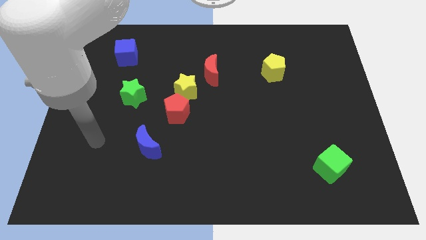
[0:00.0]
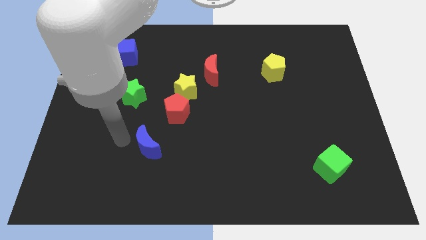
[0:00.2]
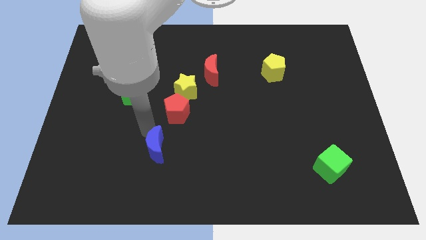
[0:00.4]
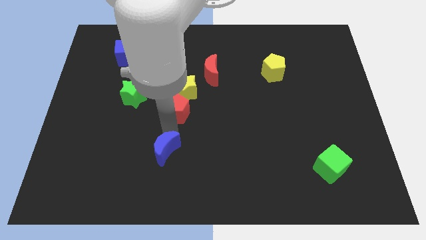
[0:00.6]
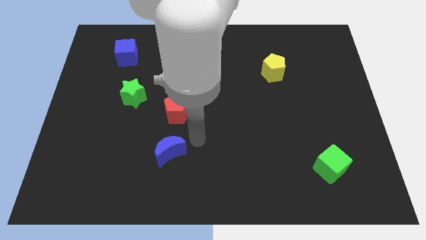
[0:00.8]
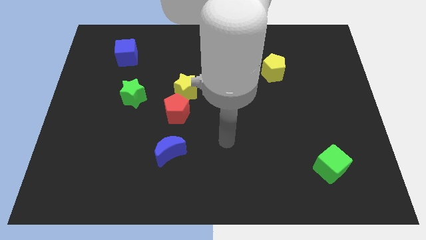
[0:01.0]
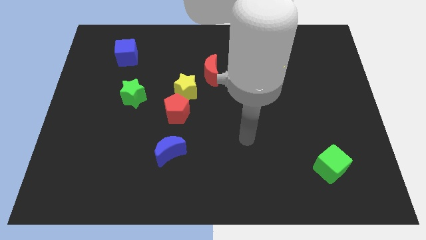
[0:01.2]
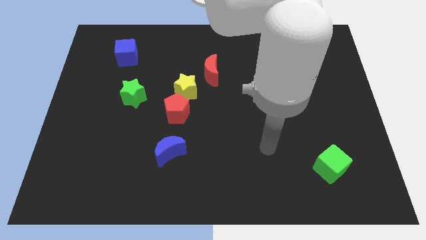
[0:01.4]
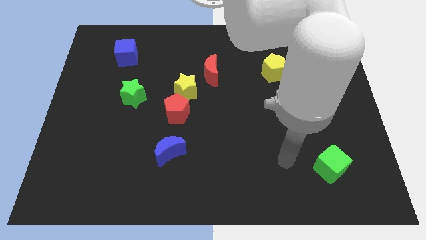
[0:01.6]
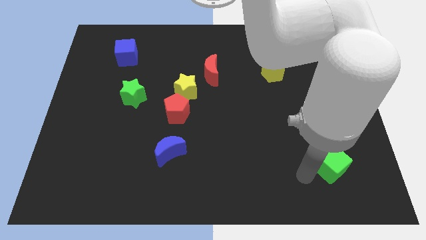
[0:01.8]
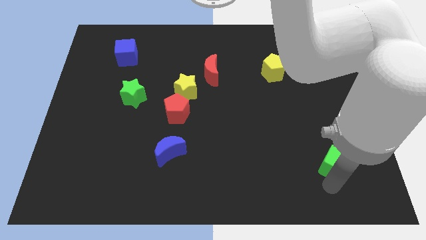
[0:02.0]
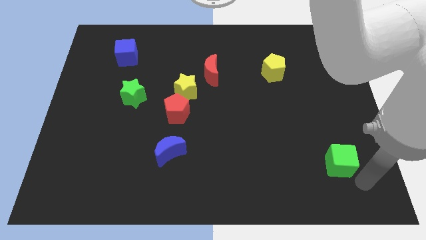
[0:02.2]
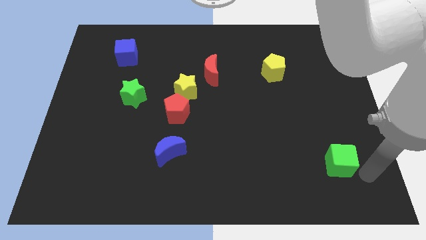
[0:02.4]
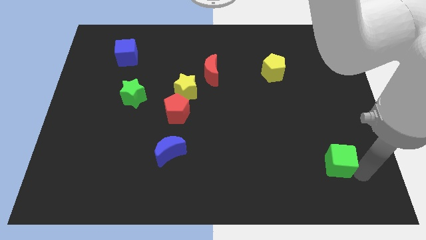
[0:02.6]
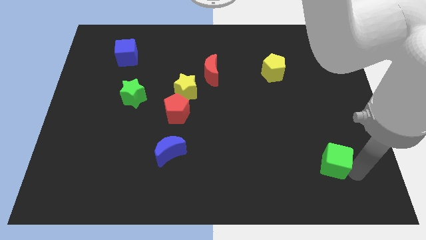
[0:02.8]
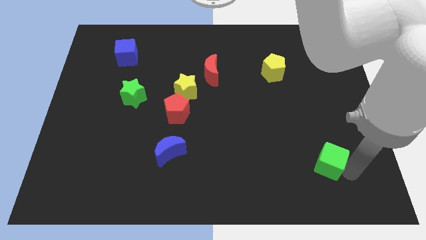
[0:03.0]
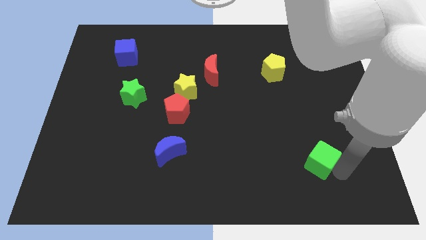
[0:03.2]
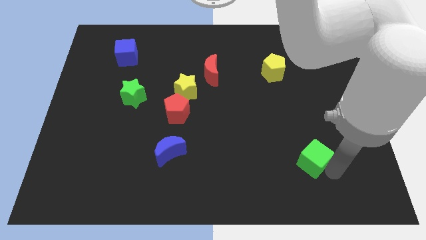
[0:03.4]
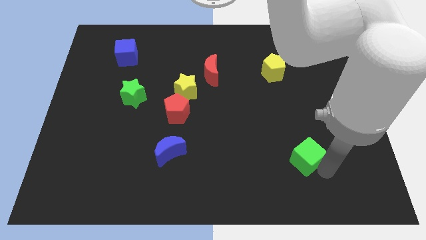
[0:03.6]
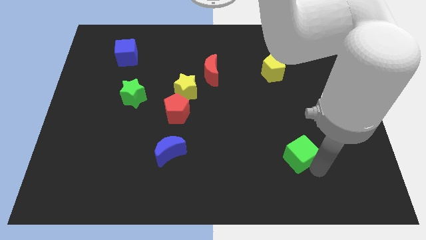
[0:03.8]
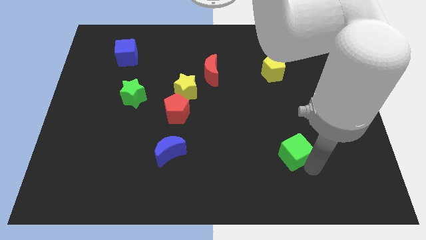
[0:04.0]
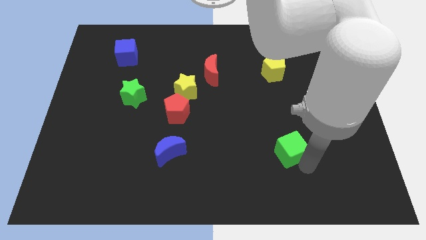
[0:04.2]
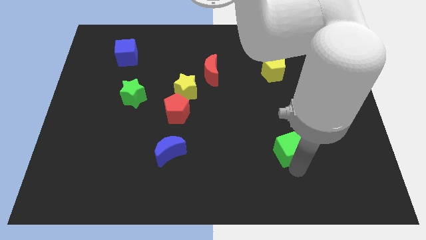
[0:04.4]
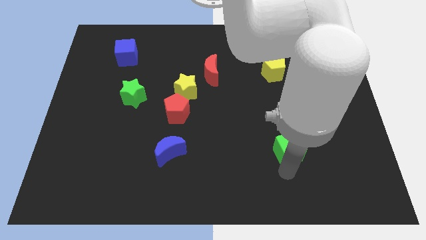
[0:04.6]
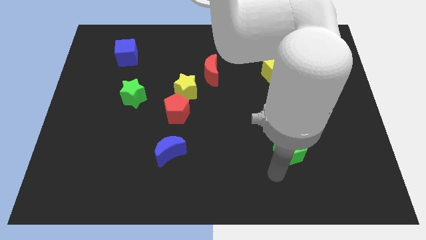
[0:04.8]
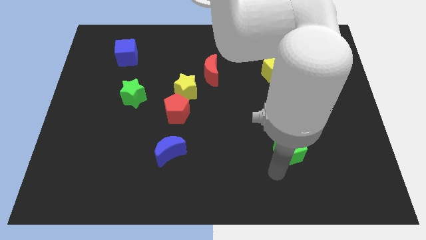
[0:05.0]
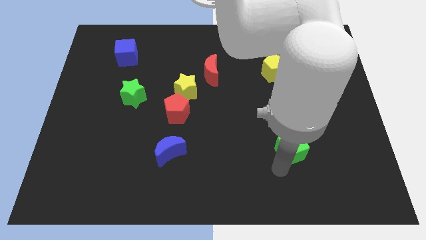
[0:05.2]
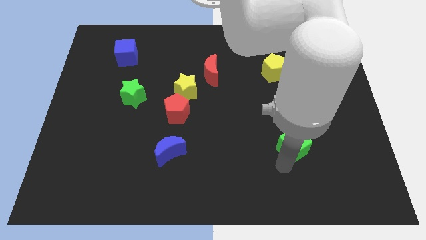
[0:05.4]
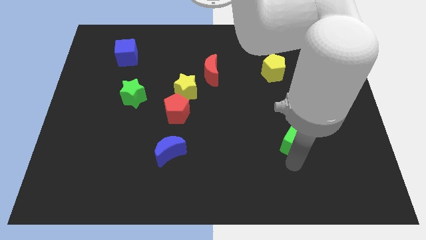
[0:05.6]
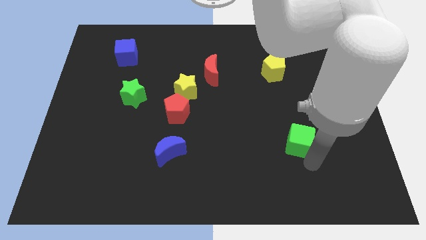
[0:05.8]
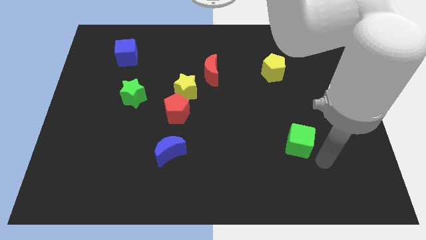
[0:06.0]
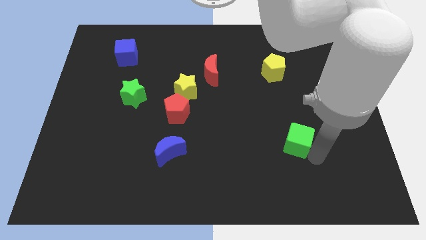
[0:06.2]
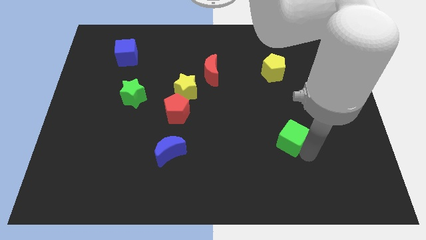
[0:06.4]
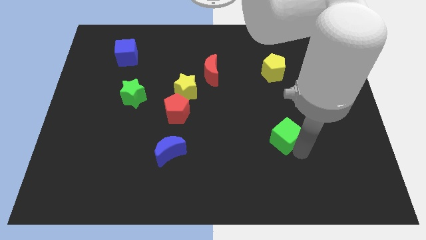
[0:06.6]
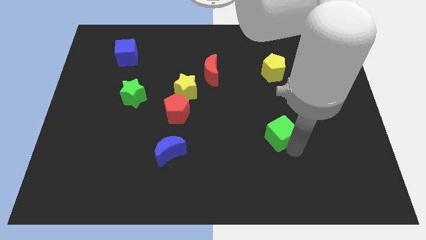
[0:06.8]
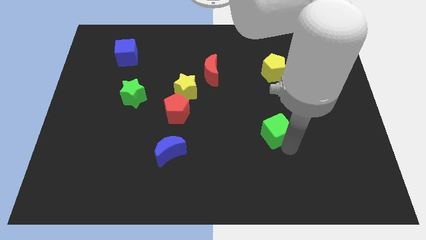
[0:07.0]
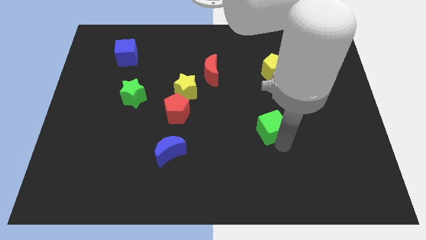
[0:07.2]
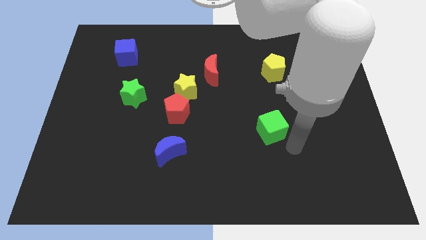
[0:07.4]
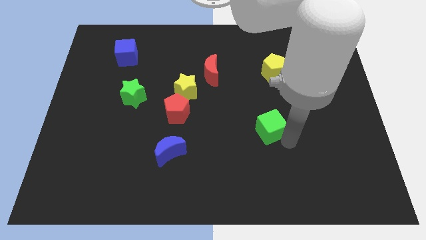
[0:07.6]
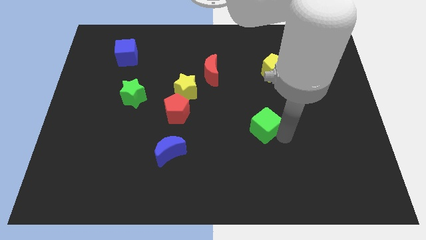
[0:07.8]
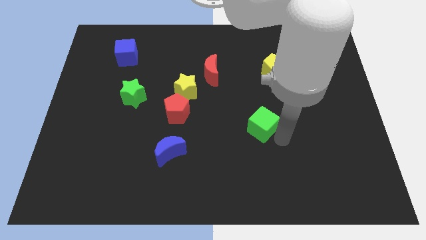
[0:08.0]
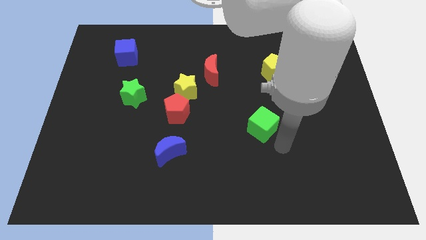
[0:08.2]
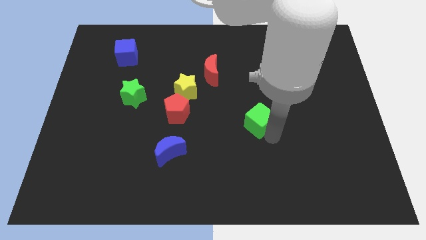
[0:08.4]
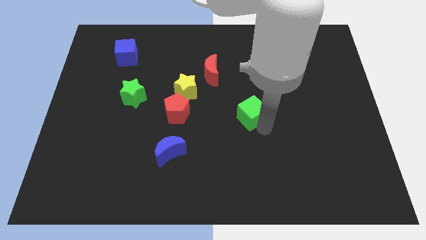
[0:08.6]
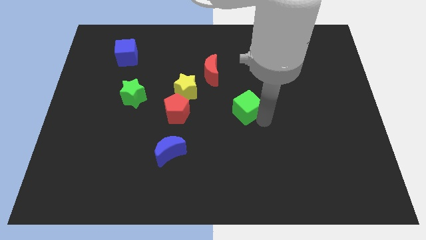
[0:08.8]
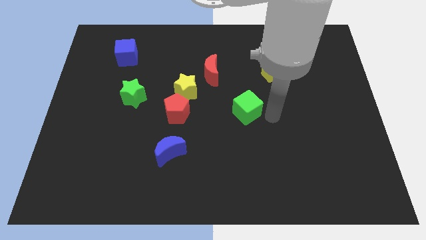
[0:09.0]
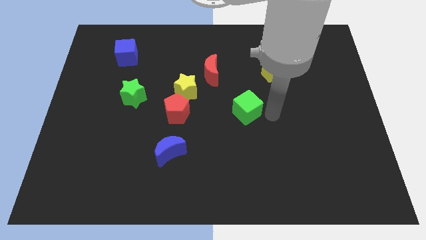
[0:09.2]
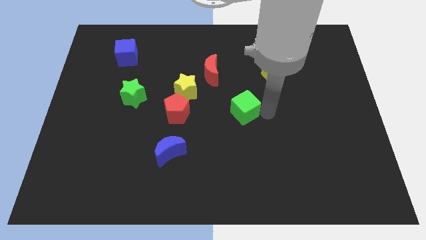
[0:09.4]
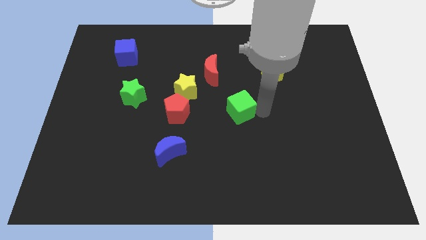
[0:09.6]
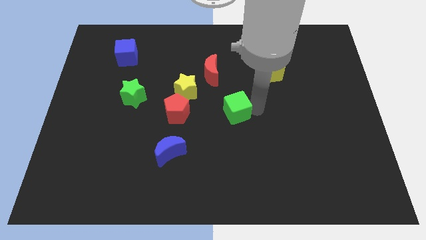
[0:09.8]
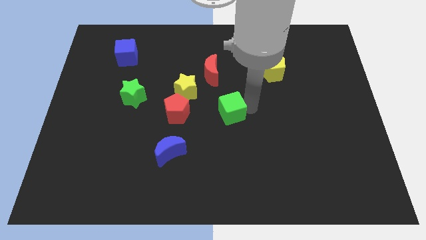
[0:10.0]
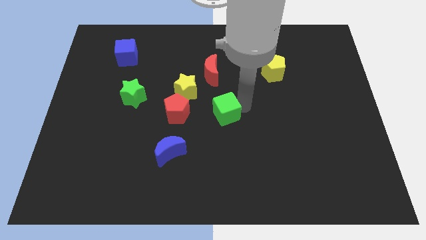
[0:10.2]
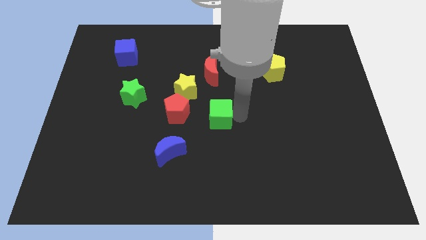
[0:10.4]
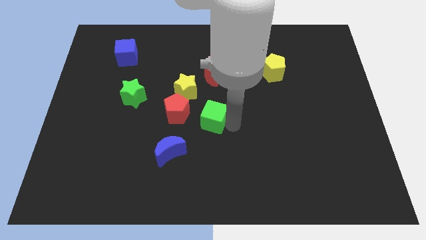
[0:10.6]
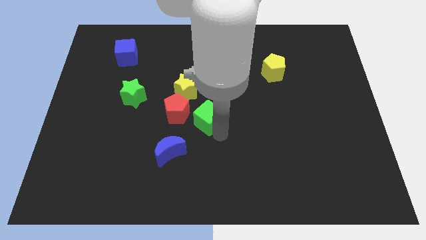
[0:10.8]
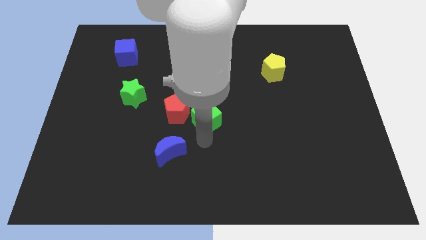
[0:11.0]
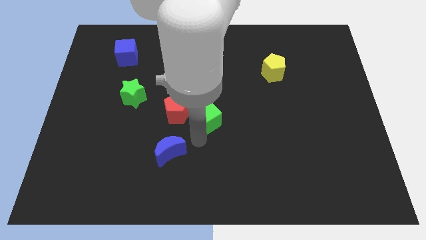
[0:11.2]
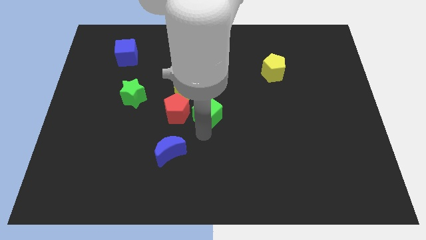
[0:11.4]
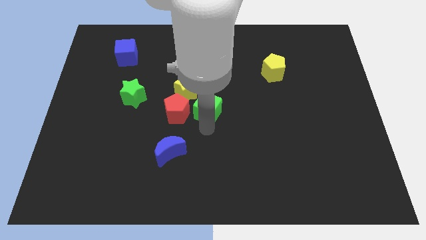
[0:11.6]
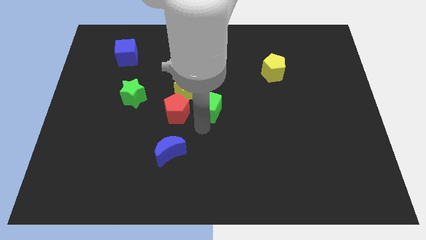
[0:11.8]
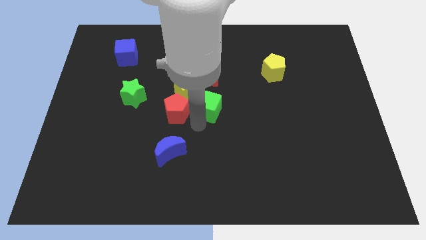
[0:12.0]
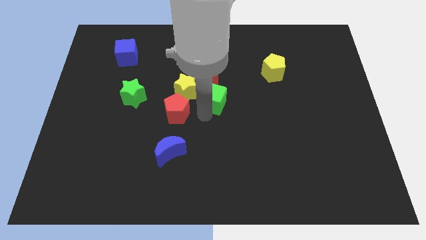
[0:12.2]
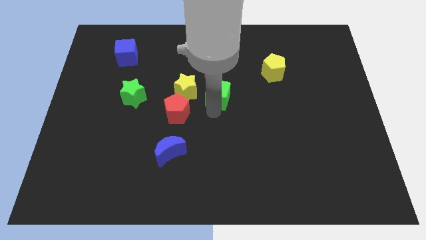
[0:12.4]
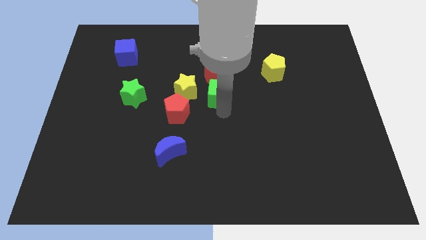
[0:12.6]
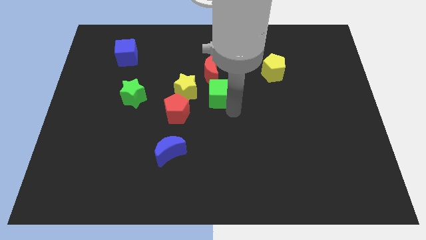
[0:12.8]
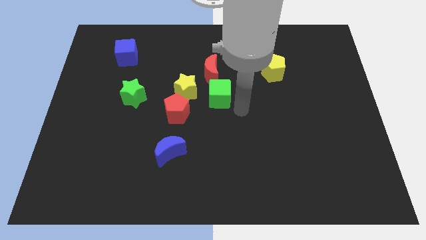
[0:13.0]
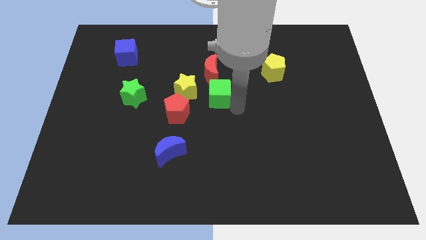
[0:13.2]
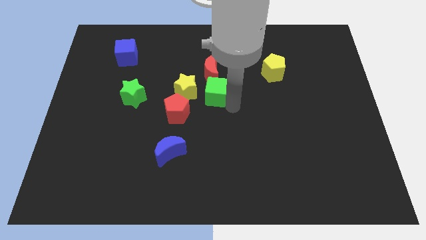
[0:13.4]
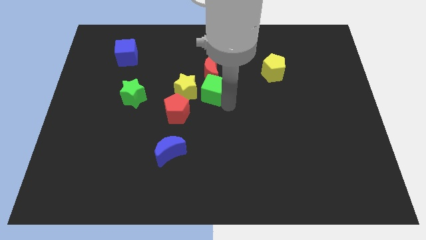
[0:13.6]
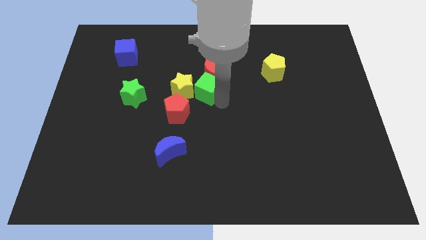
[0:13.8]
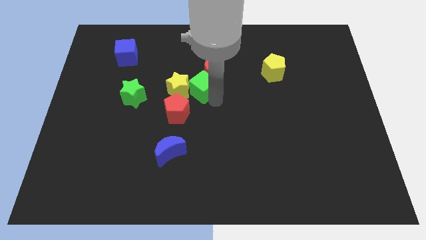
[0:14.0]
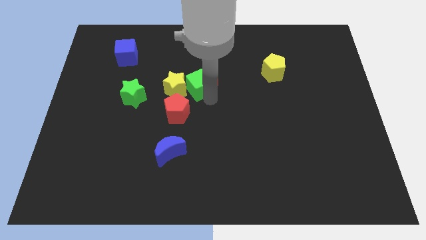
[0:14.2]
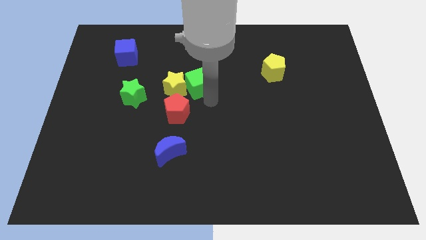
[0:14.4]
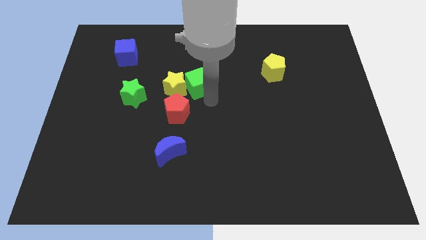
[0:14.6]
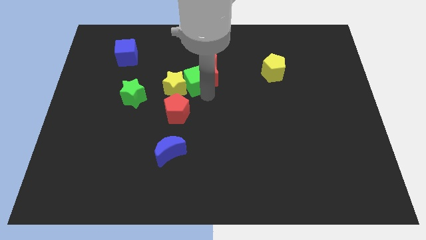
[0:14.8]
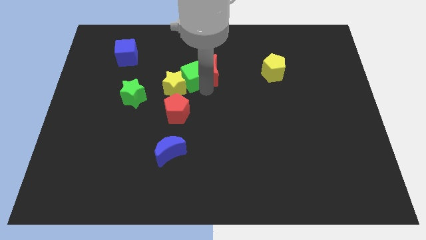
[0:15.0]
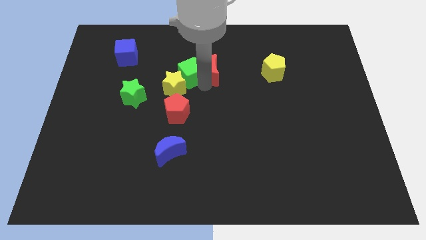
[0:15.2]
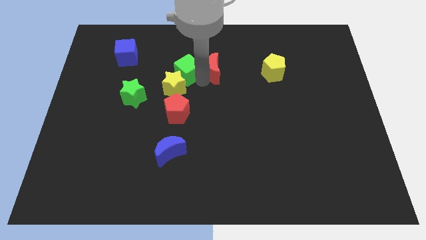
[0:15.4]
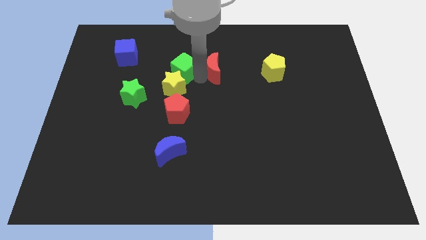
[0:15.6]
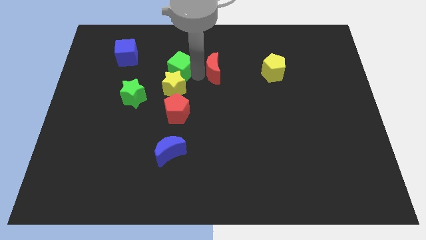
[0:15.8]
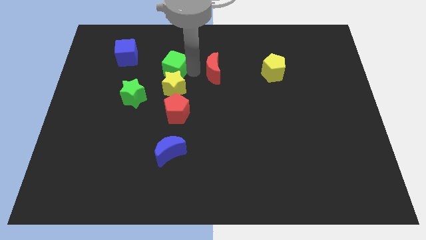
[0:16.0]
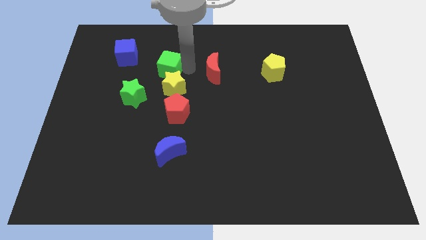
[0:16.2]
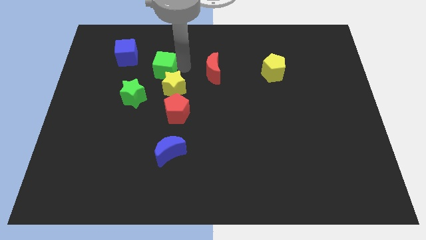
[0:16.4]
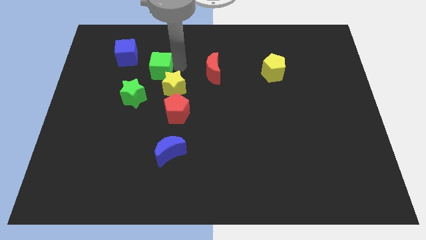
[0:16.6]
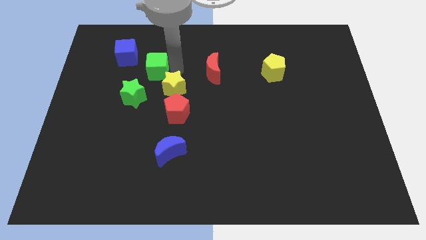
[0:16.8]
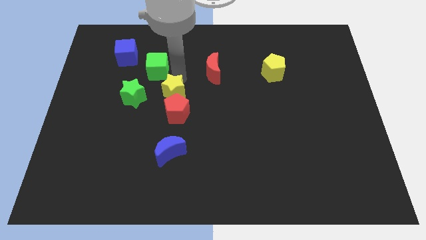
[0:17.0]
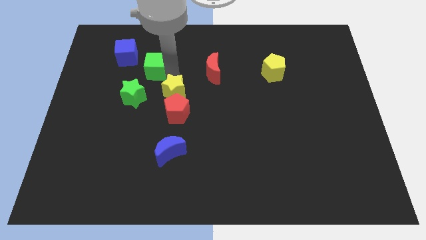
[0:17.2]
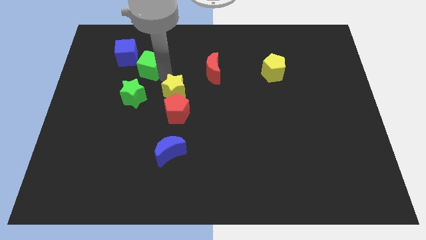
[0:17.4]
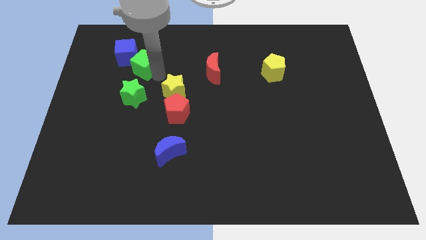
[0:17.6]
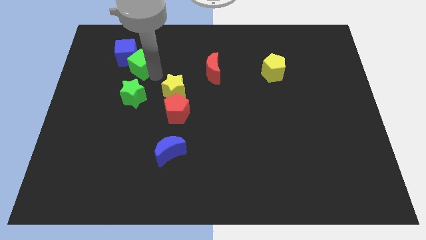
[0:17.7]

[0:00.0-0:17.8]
push the green cube close to the blue cube
